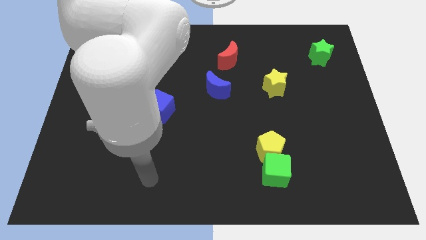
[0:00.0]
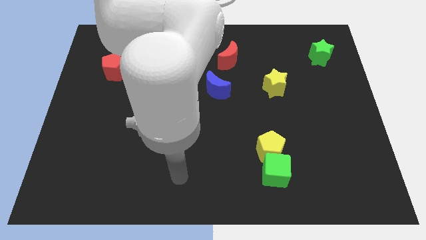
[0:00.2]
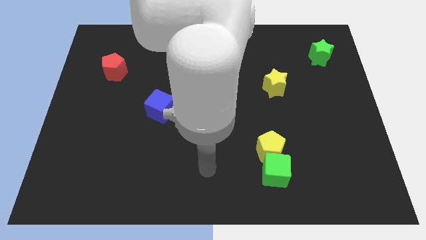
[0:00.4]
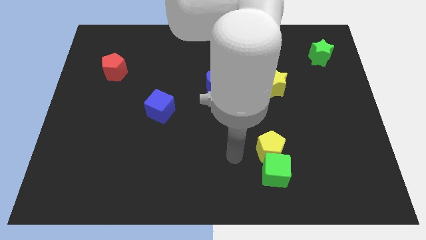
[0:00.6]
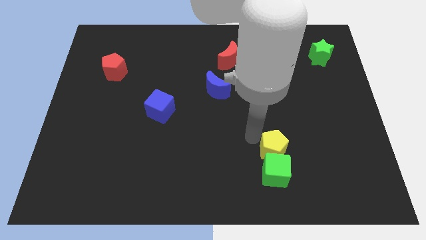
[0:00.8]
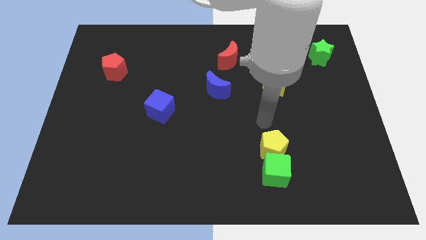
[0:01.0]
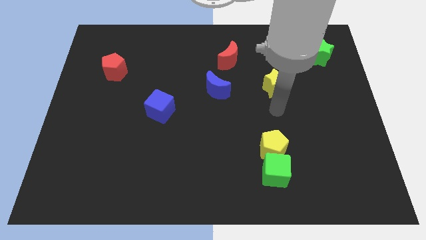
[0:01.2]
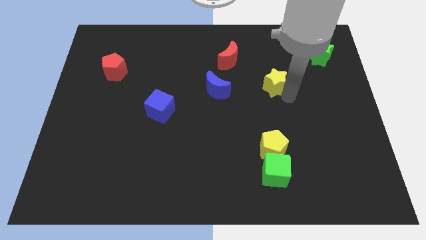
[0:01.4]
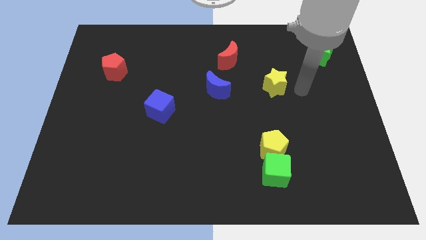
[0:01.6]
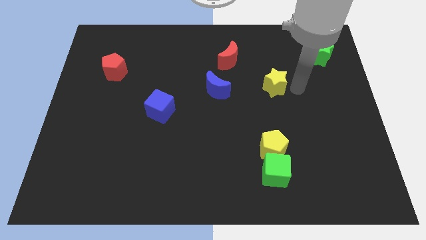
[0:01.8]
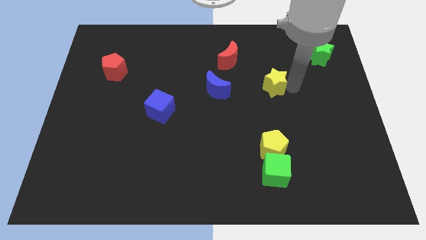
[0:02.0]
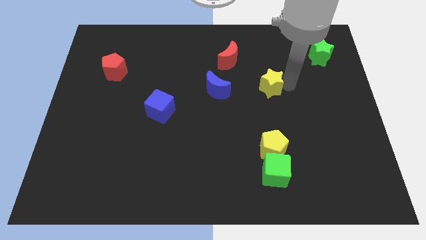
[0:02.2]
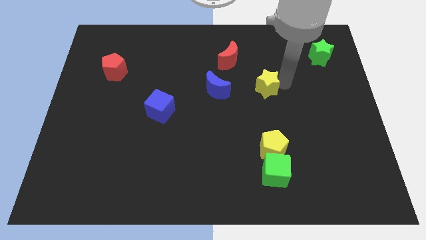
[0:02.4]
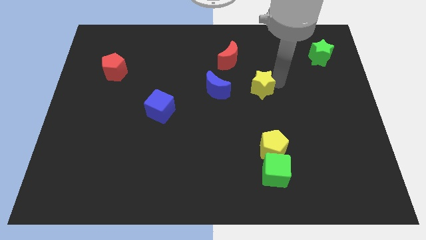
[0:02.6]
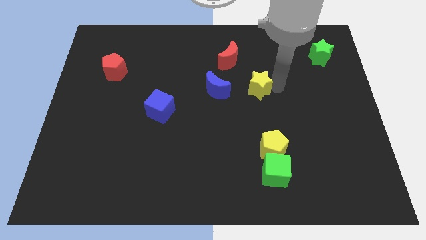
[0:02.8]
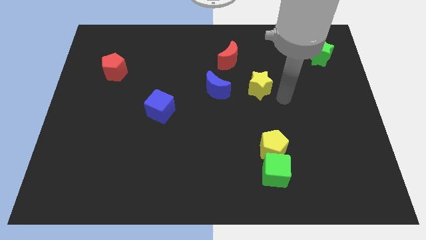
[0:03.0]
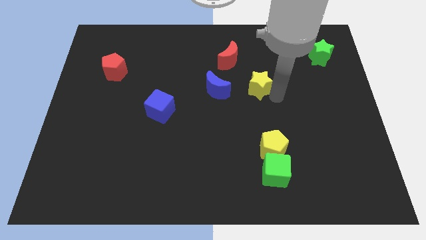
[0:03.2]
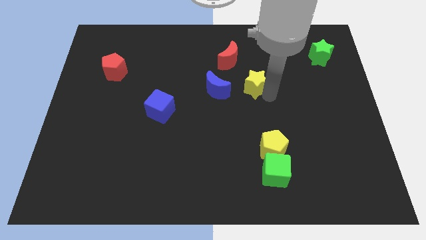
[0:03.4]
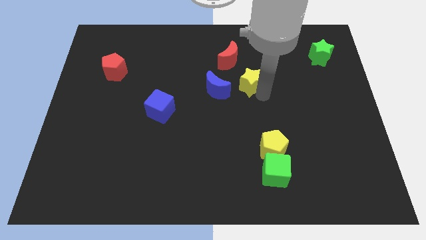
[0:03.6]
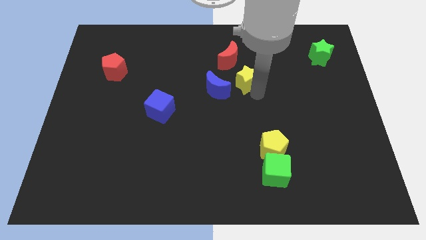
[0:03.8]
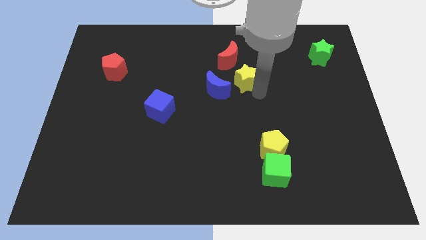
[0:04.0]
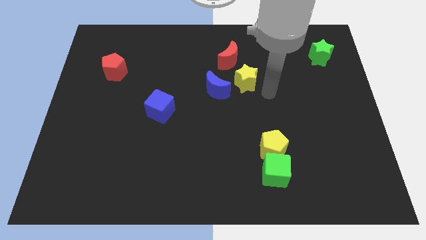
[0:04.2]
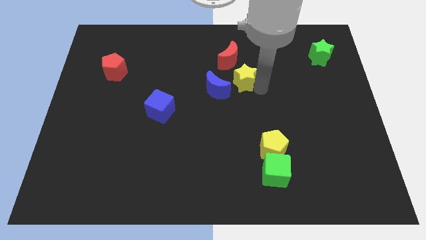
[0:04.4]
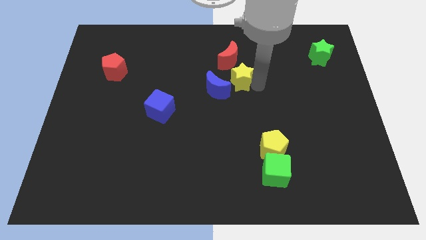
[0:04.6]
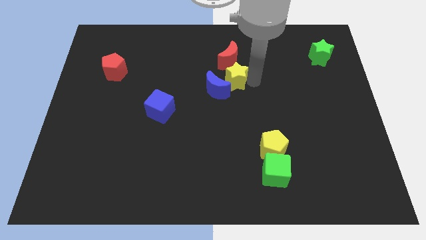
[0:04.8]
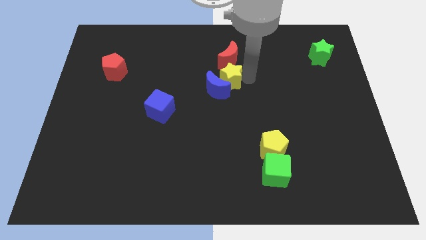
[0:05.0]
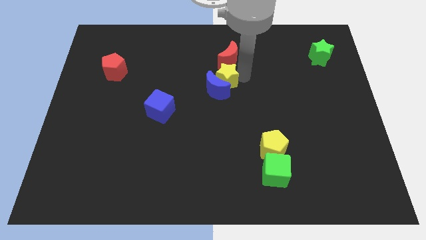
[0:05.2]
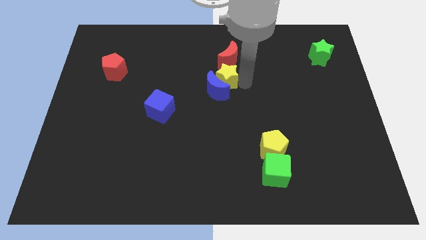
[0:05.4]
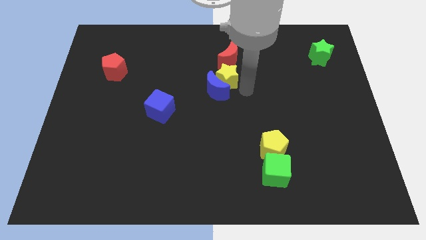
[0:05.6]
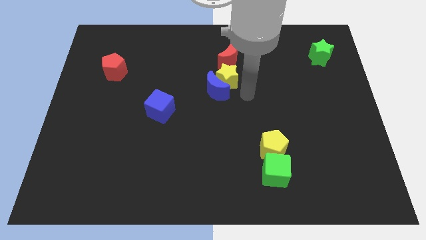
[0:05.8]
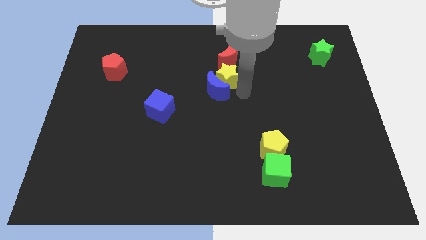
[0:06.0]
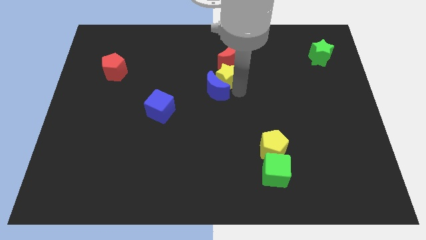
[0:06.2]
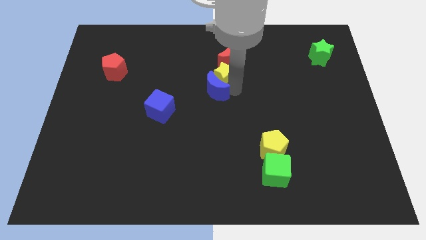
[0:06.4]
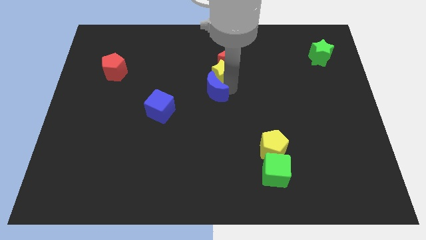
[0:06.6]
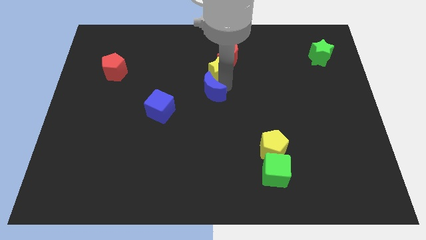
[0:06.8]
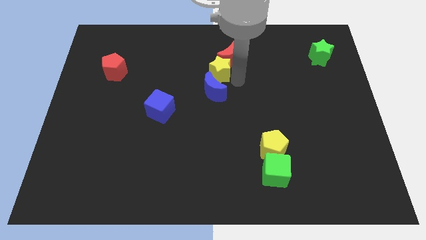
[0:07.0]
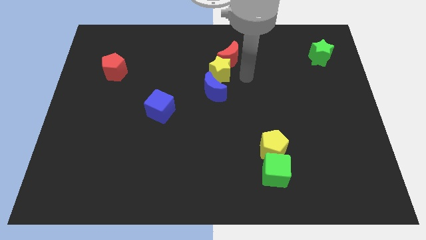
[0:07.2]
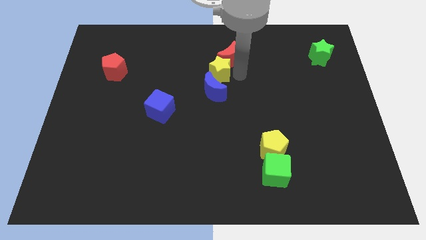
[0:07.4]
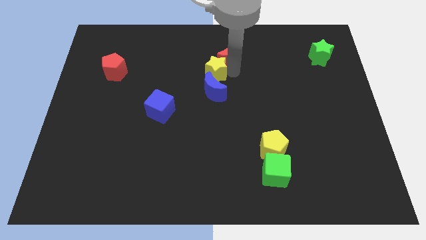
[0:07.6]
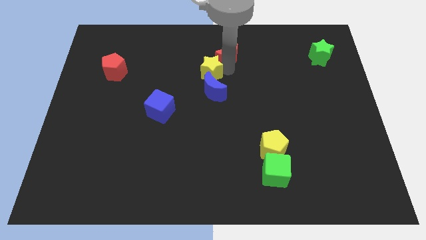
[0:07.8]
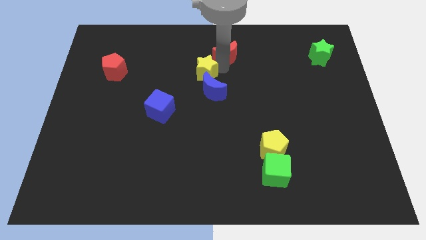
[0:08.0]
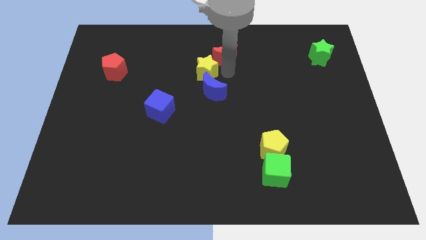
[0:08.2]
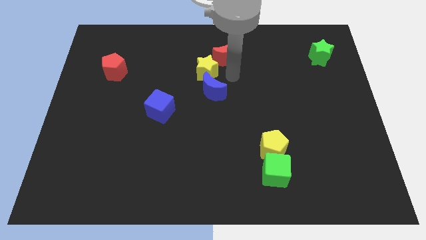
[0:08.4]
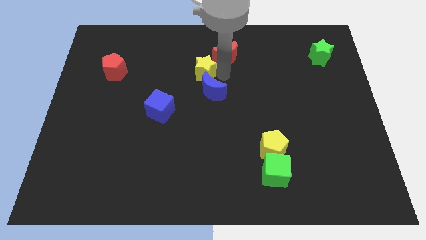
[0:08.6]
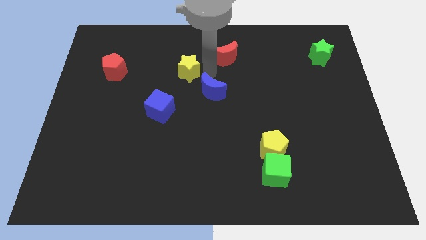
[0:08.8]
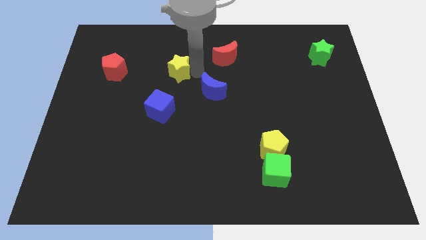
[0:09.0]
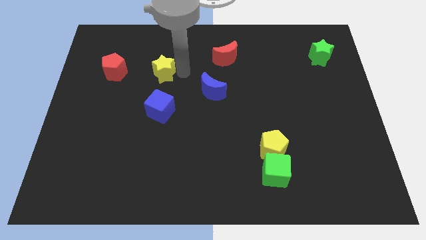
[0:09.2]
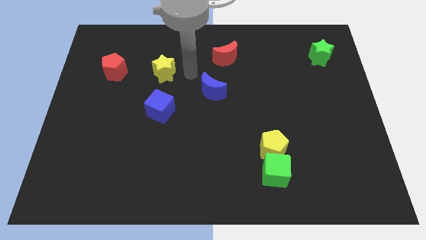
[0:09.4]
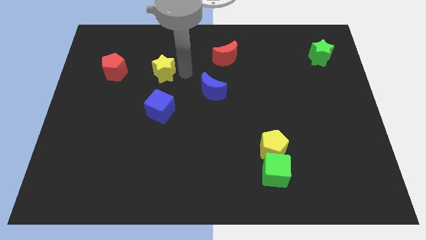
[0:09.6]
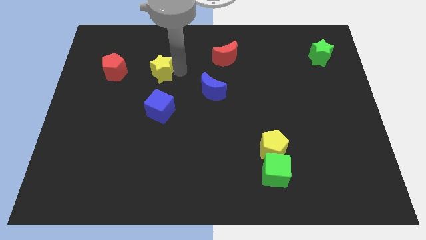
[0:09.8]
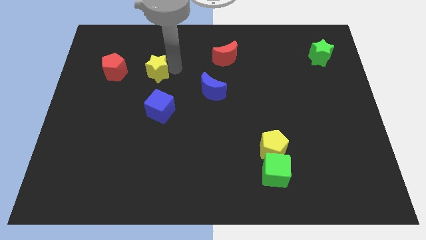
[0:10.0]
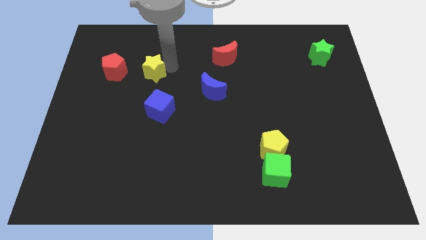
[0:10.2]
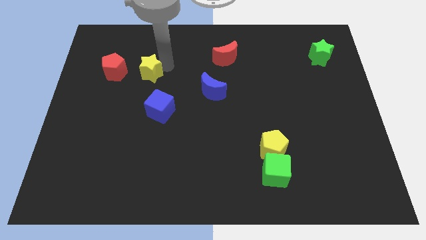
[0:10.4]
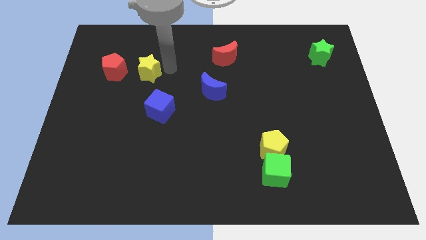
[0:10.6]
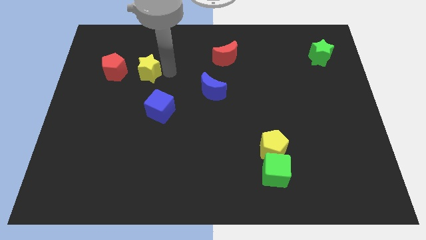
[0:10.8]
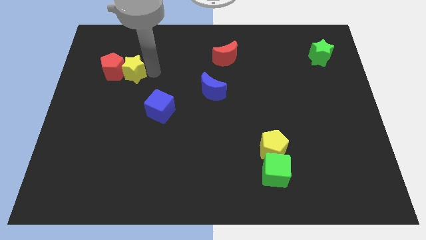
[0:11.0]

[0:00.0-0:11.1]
move the yellow star towards the red pentagon

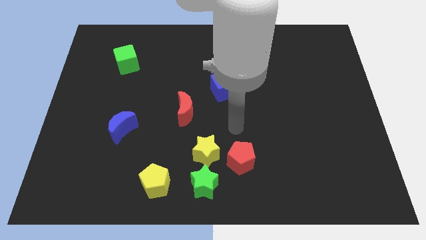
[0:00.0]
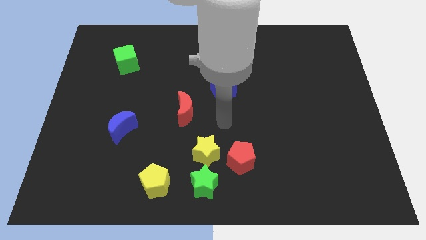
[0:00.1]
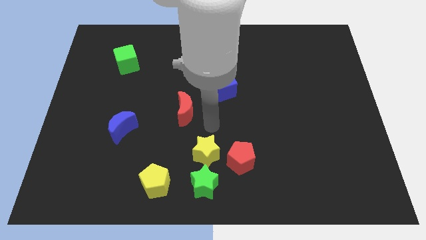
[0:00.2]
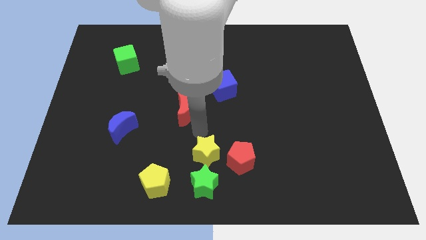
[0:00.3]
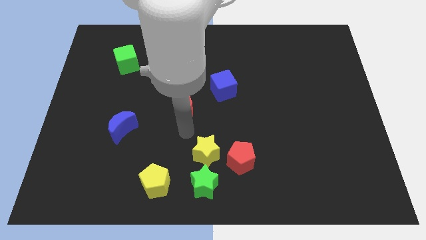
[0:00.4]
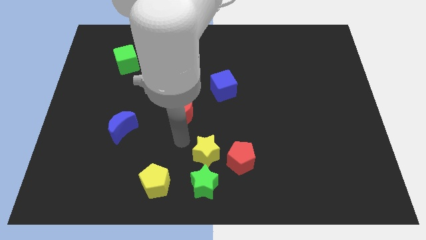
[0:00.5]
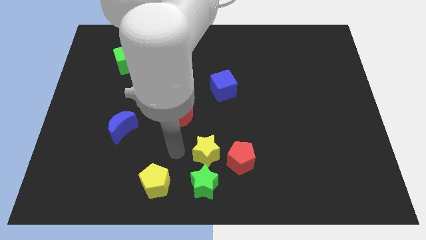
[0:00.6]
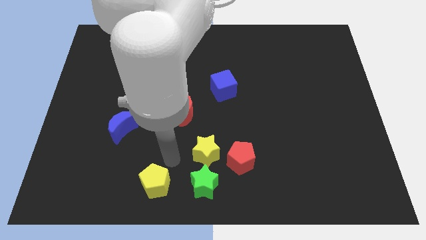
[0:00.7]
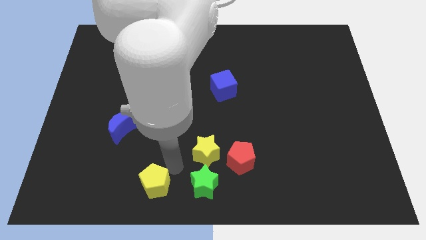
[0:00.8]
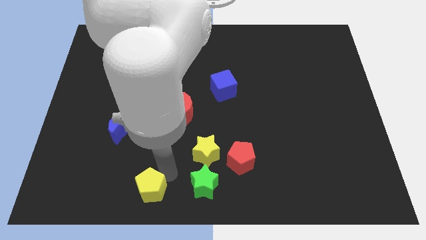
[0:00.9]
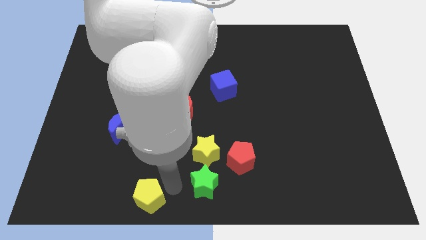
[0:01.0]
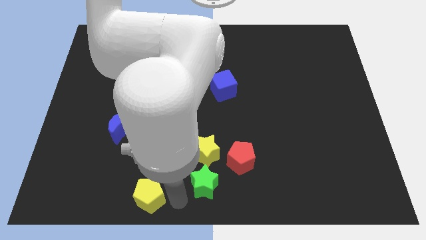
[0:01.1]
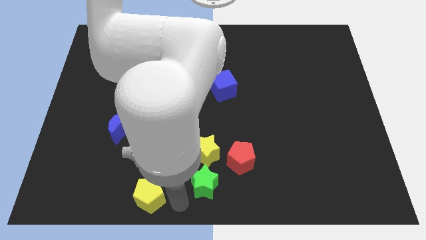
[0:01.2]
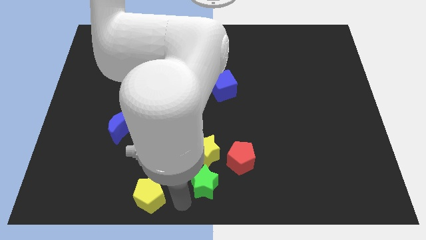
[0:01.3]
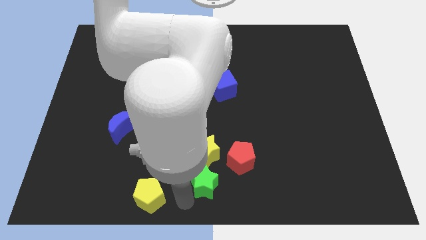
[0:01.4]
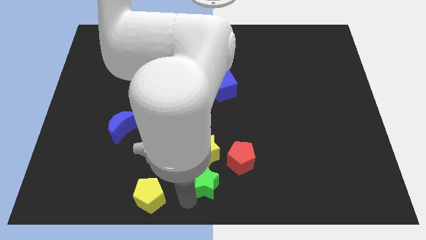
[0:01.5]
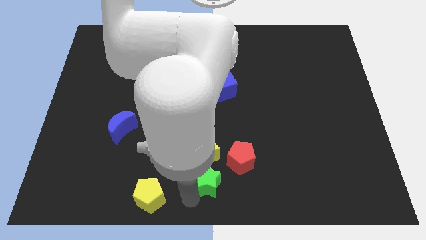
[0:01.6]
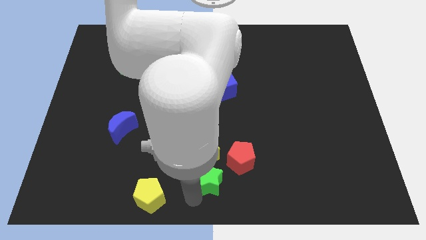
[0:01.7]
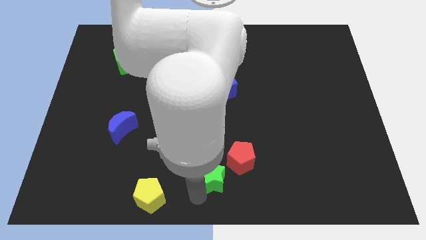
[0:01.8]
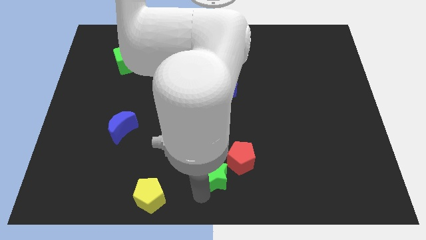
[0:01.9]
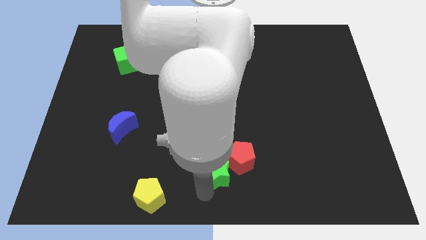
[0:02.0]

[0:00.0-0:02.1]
move the green star close to the red pentagon
